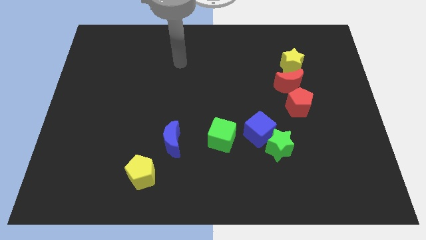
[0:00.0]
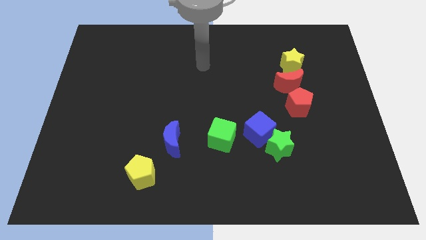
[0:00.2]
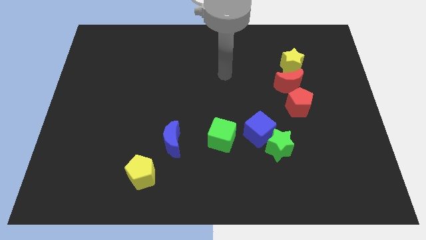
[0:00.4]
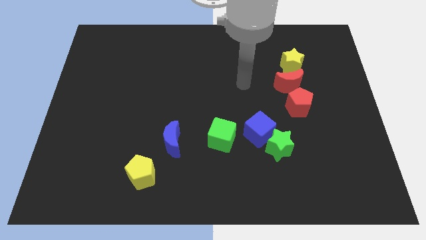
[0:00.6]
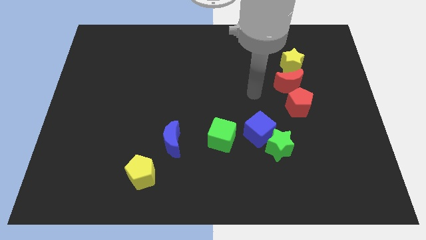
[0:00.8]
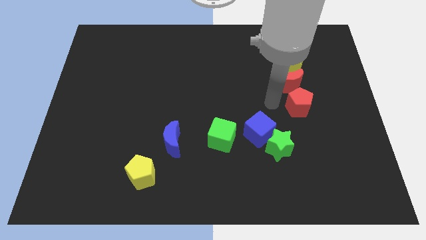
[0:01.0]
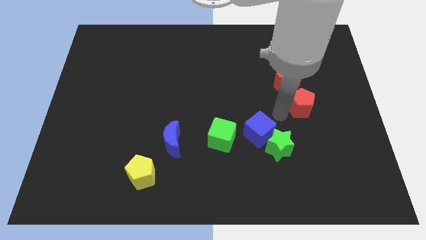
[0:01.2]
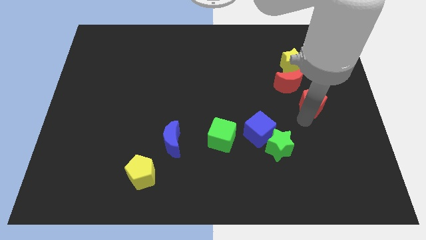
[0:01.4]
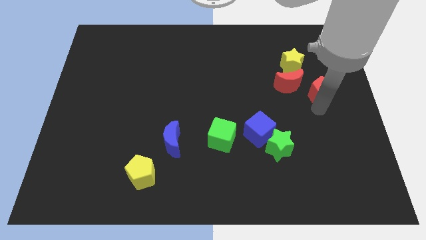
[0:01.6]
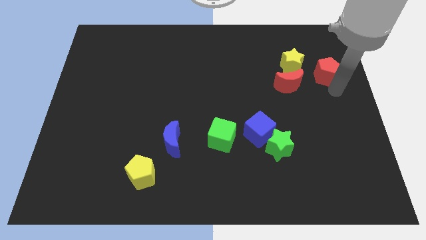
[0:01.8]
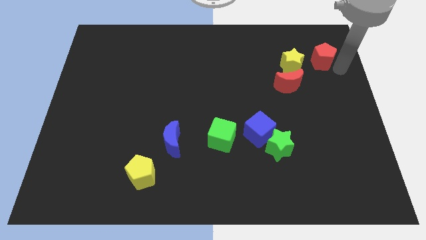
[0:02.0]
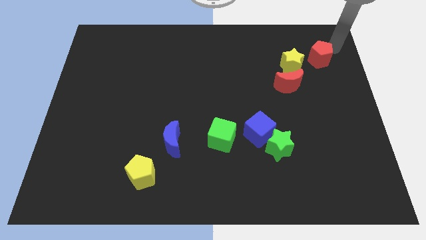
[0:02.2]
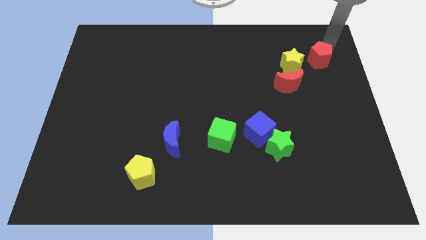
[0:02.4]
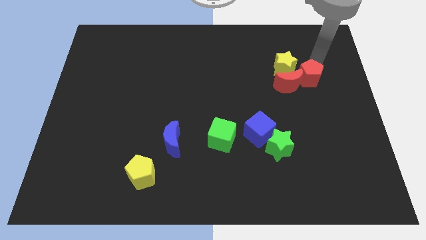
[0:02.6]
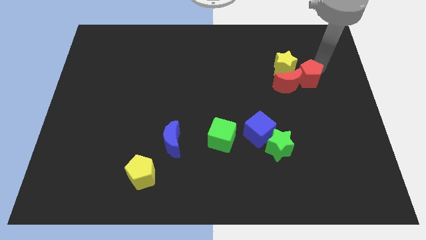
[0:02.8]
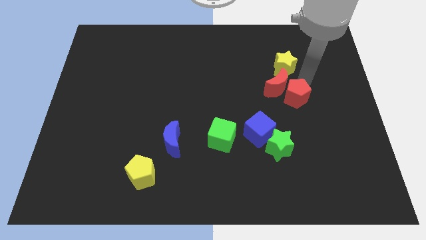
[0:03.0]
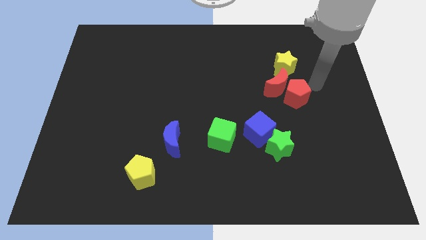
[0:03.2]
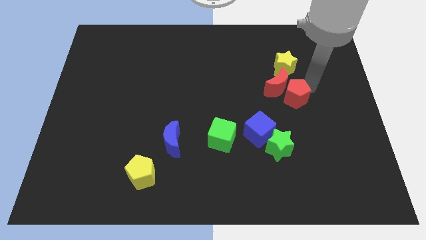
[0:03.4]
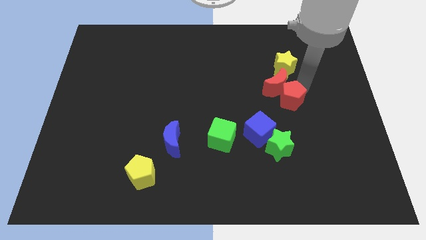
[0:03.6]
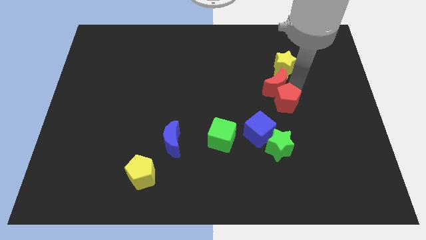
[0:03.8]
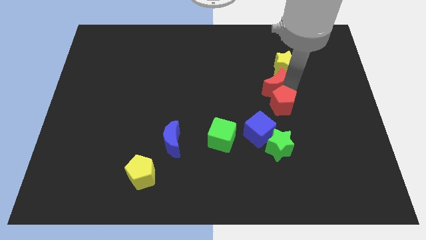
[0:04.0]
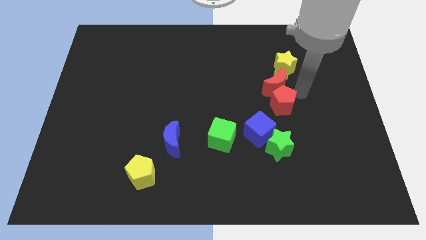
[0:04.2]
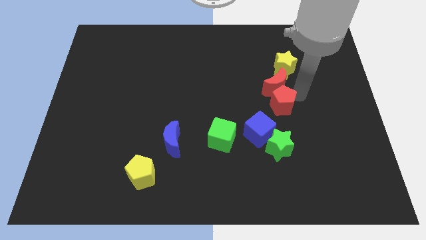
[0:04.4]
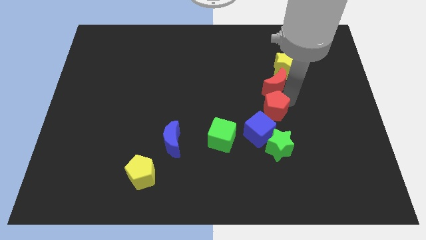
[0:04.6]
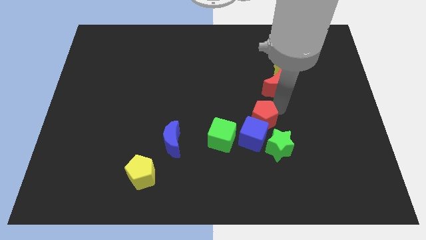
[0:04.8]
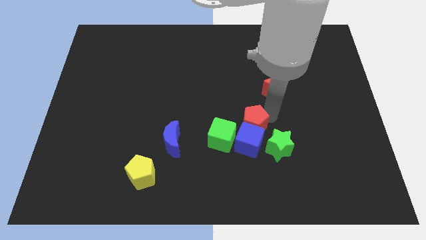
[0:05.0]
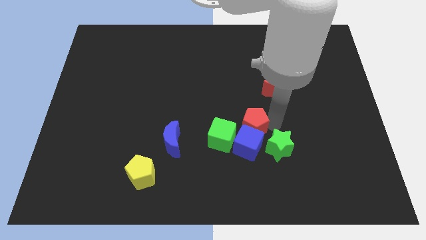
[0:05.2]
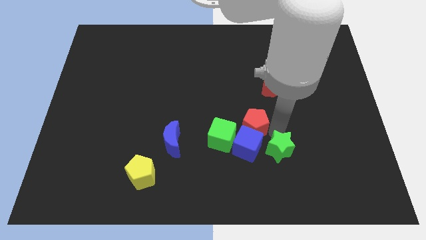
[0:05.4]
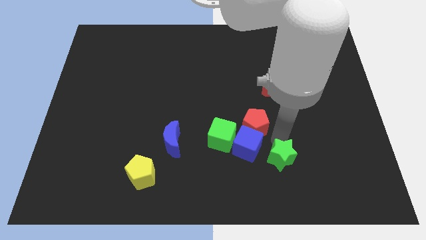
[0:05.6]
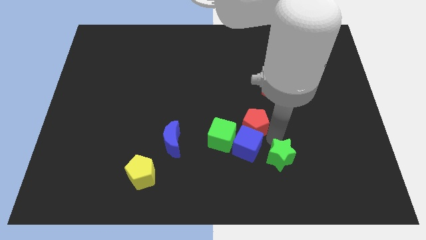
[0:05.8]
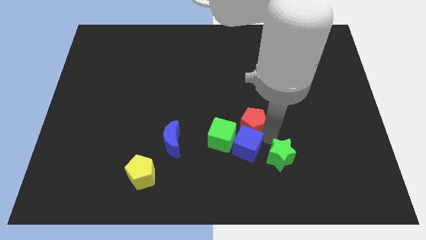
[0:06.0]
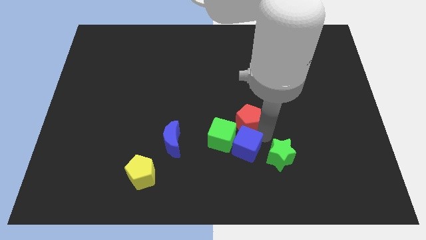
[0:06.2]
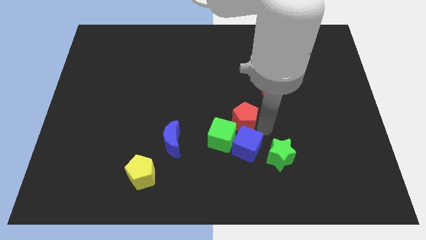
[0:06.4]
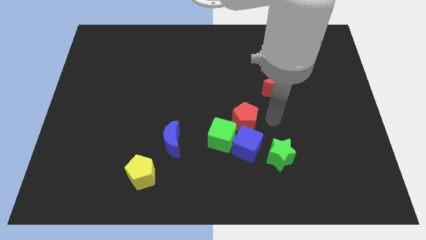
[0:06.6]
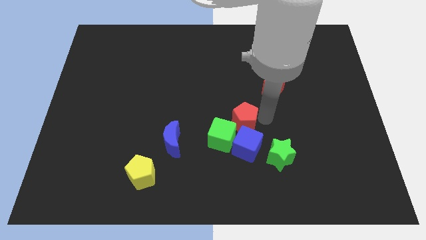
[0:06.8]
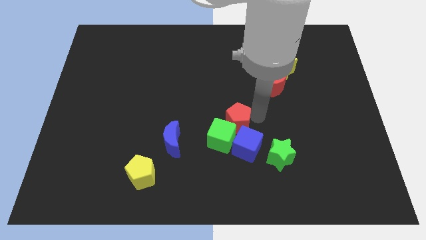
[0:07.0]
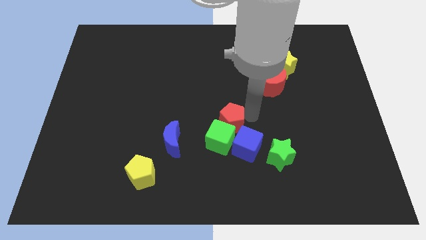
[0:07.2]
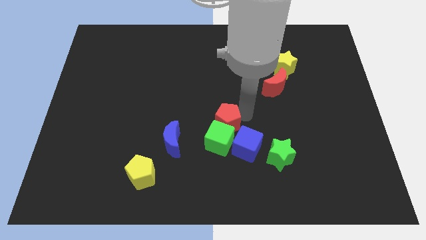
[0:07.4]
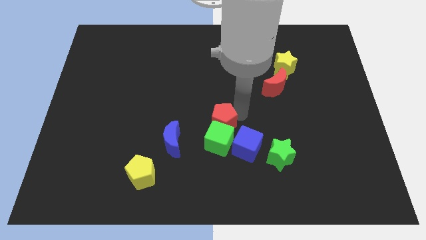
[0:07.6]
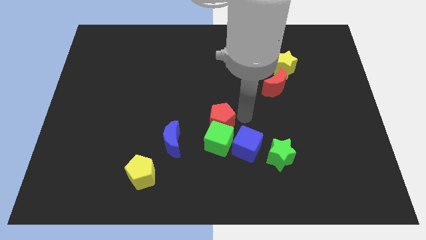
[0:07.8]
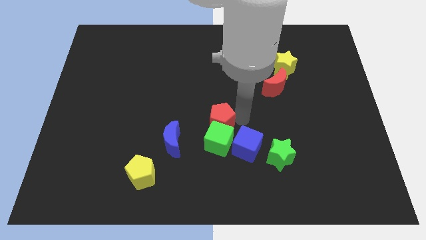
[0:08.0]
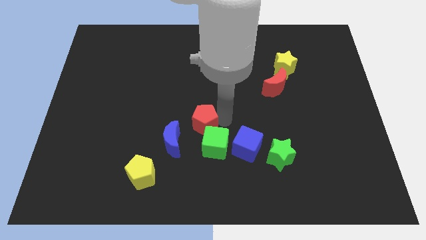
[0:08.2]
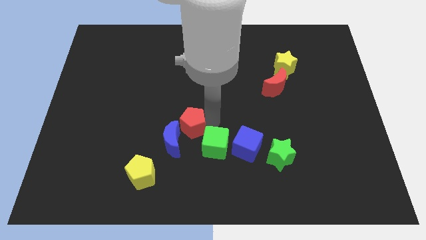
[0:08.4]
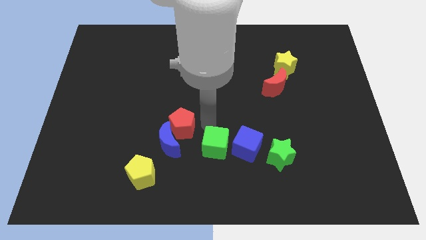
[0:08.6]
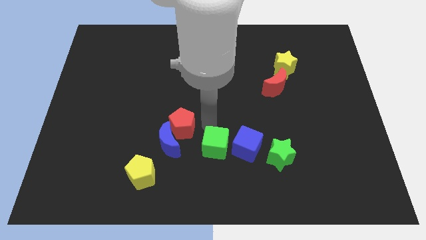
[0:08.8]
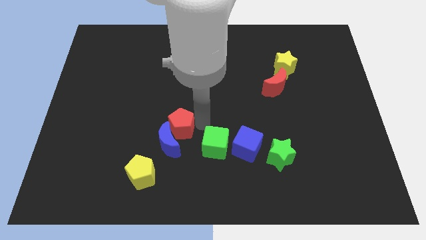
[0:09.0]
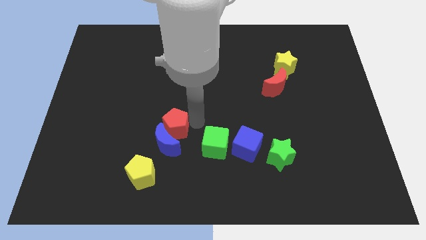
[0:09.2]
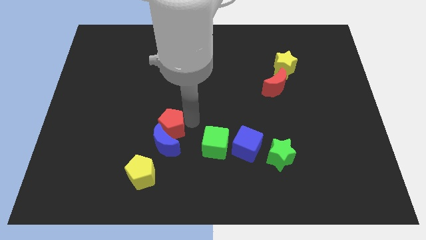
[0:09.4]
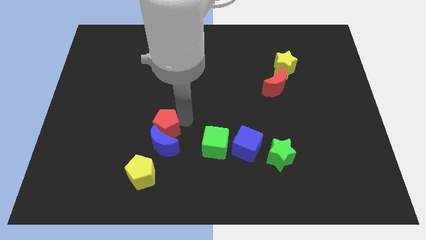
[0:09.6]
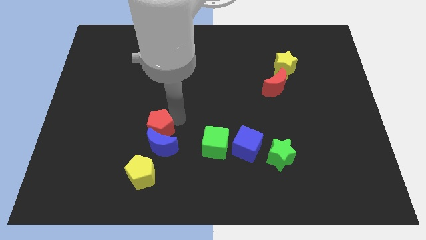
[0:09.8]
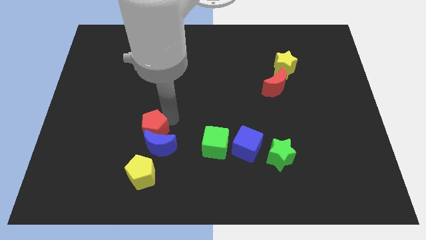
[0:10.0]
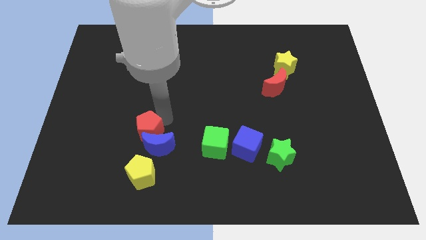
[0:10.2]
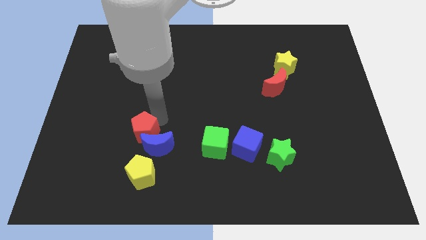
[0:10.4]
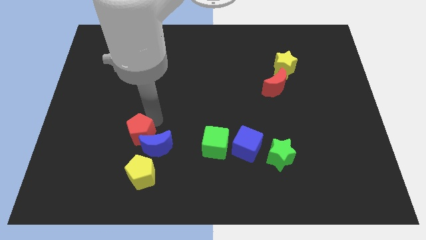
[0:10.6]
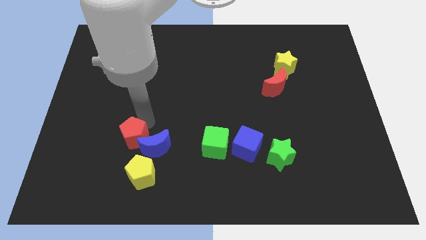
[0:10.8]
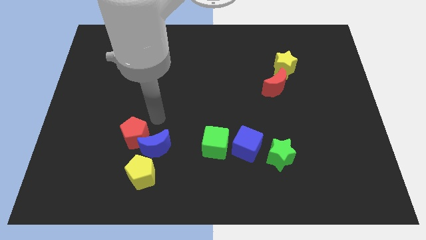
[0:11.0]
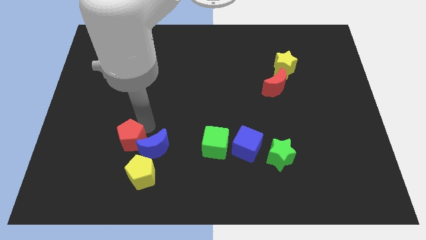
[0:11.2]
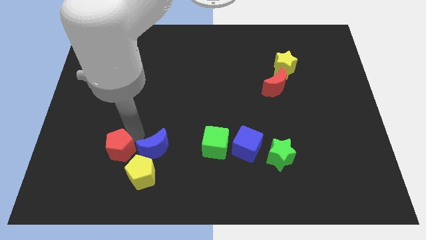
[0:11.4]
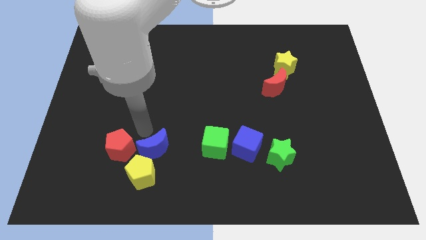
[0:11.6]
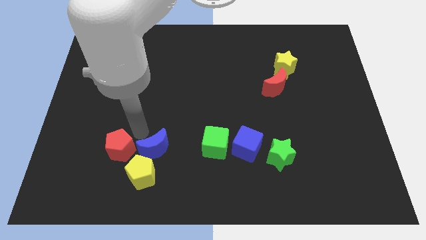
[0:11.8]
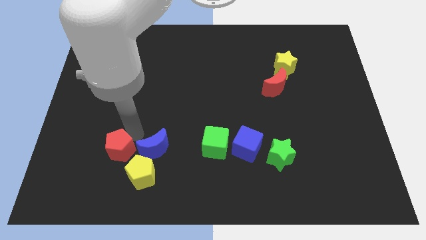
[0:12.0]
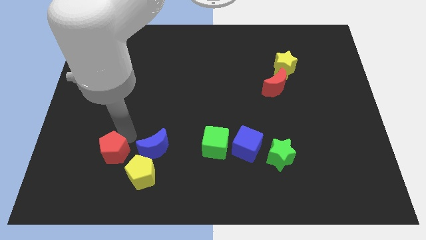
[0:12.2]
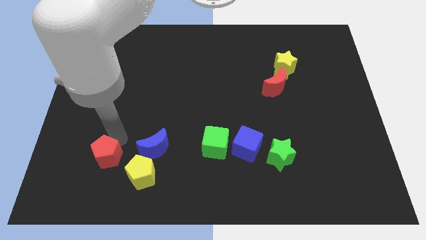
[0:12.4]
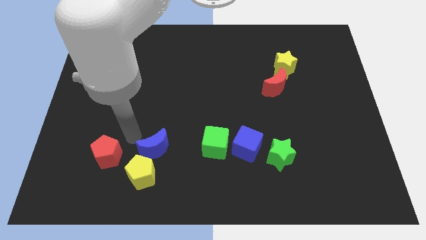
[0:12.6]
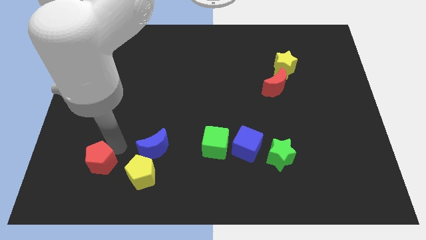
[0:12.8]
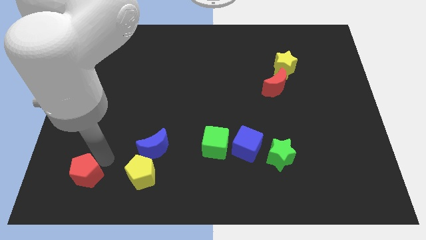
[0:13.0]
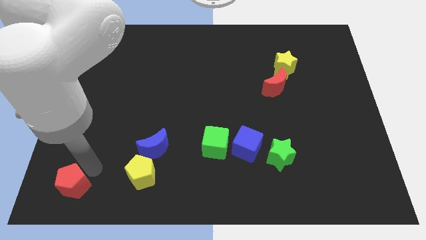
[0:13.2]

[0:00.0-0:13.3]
slide the red pentagon to the lower left corner
